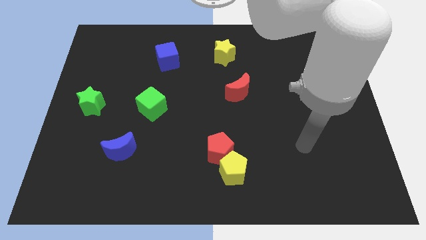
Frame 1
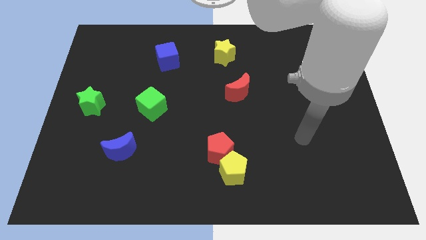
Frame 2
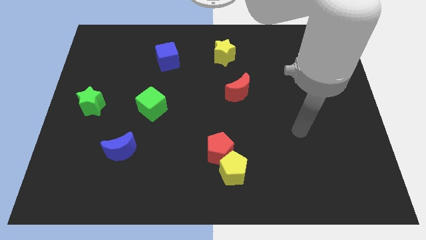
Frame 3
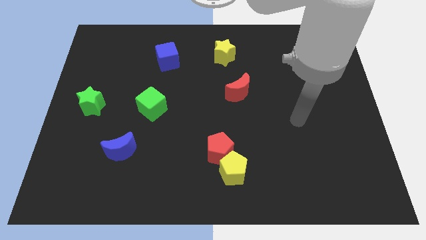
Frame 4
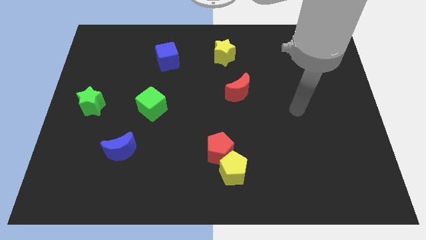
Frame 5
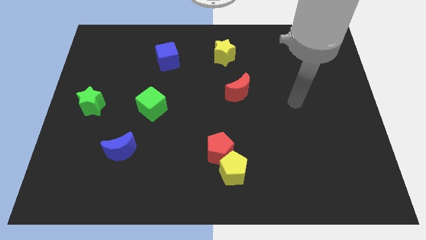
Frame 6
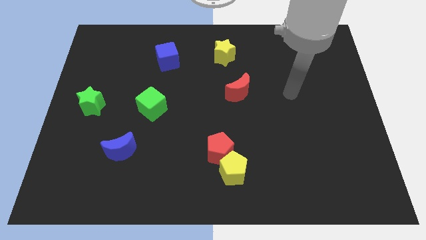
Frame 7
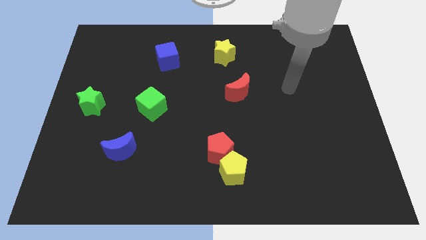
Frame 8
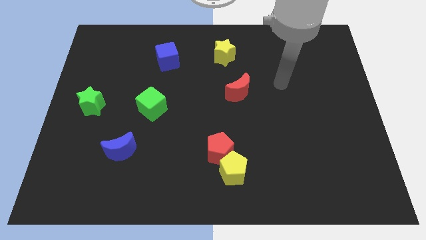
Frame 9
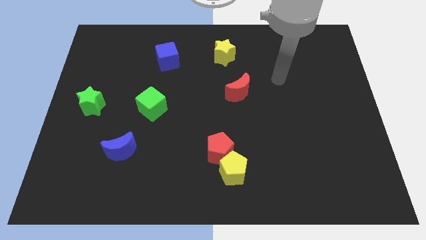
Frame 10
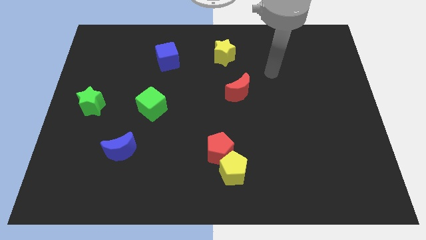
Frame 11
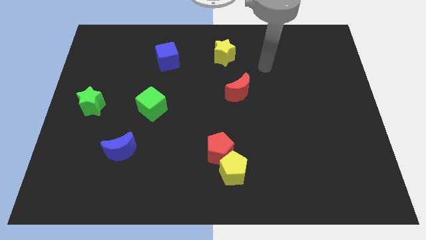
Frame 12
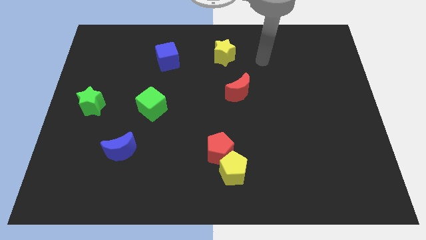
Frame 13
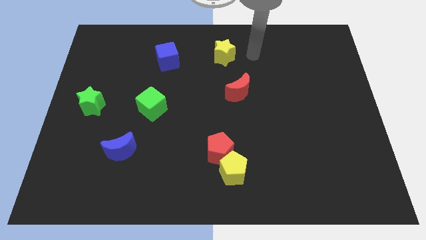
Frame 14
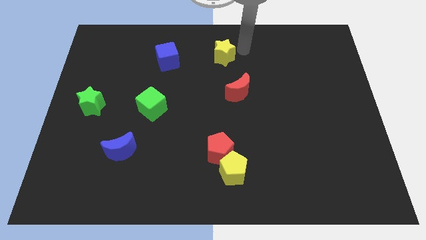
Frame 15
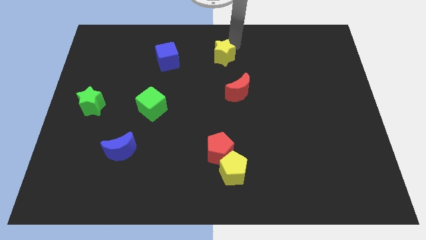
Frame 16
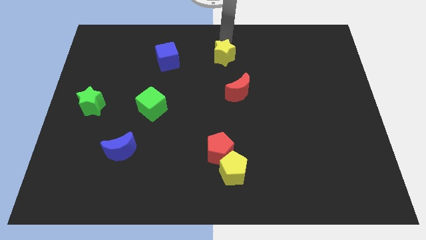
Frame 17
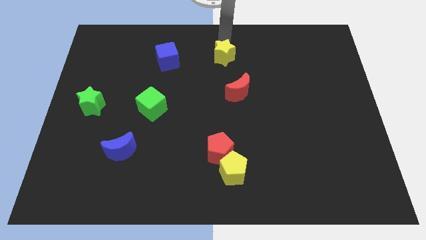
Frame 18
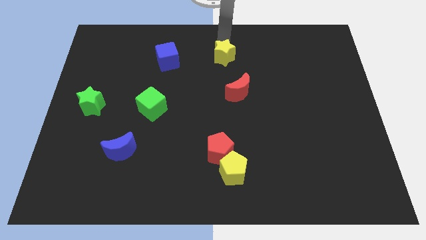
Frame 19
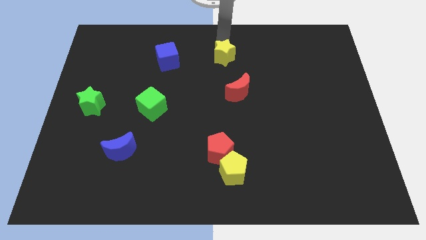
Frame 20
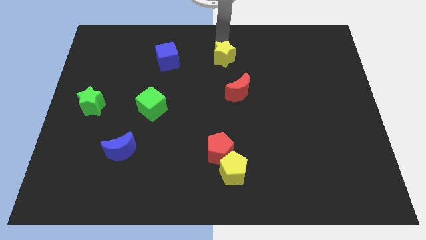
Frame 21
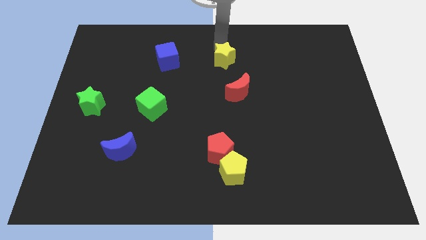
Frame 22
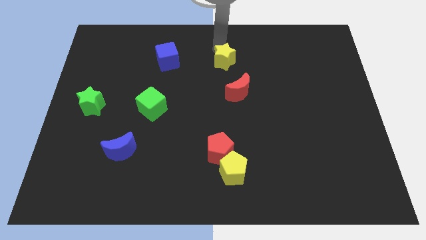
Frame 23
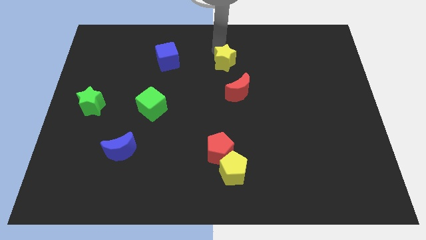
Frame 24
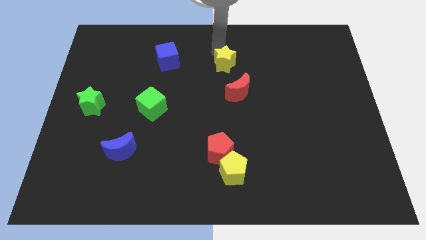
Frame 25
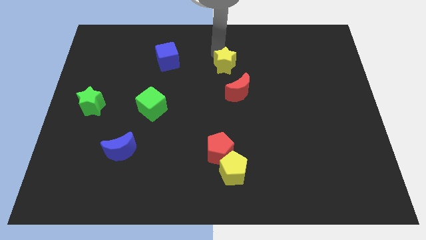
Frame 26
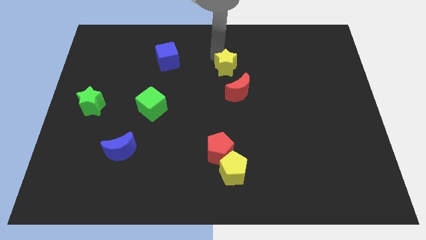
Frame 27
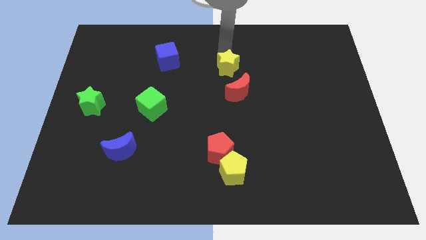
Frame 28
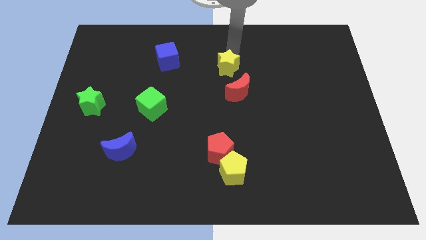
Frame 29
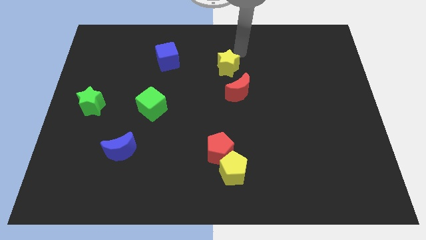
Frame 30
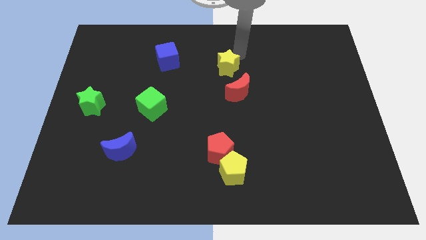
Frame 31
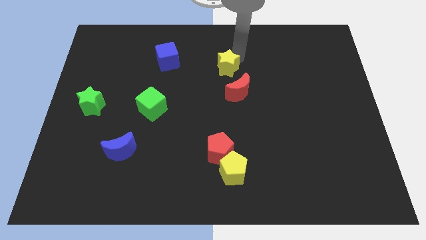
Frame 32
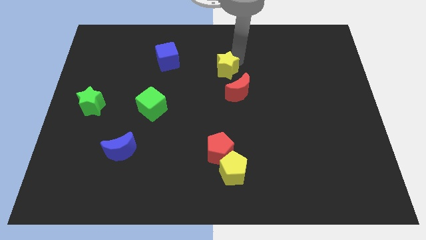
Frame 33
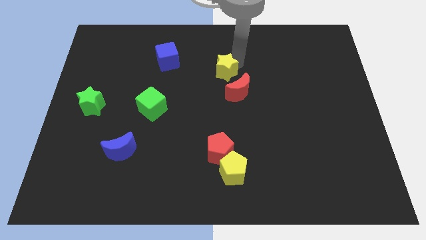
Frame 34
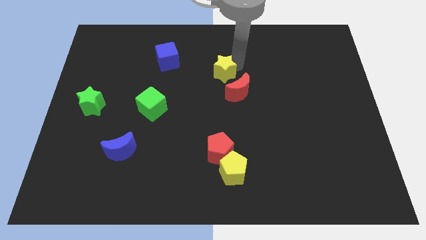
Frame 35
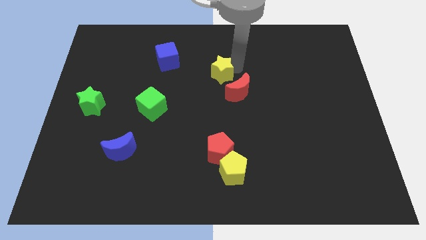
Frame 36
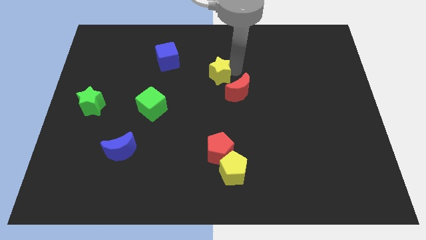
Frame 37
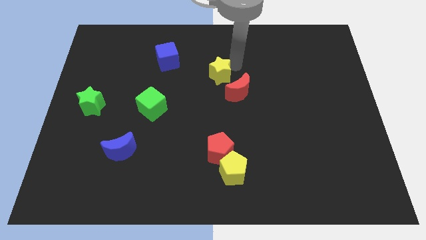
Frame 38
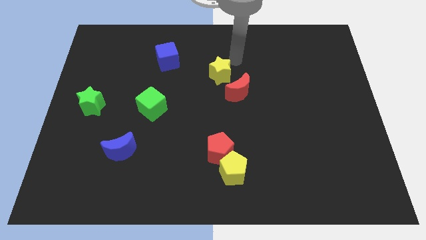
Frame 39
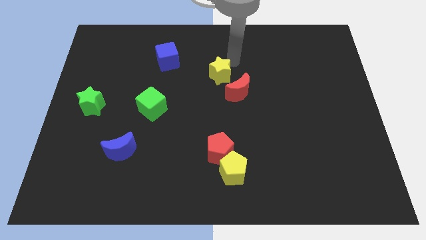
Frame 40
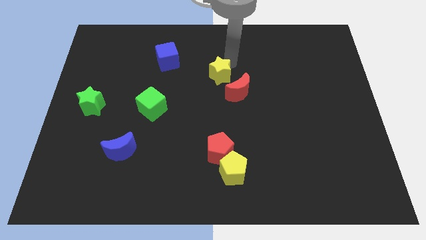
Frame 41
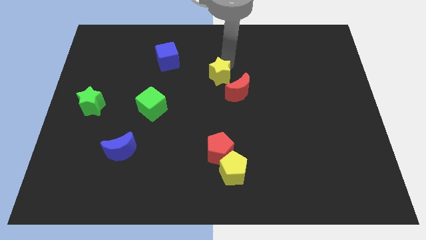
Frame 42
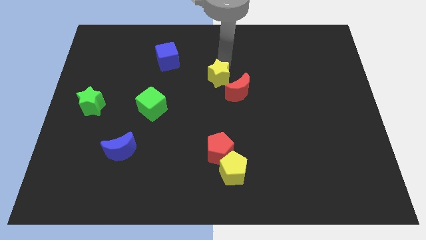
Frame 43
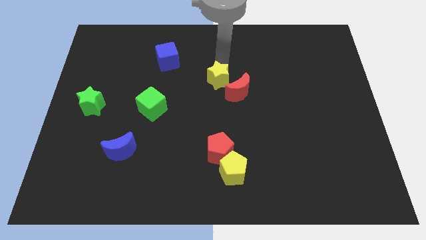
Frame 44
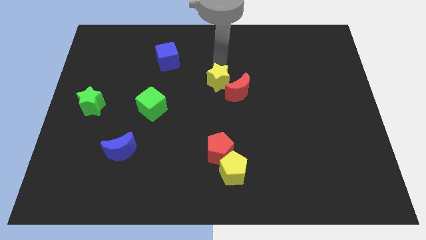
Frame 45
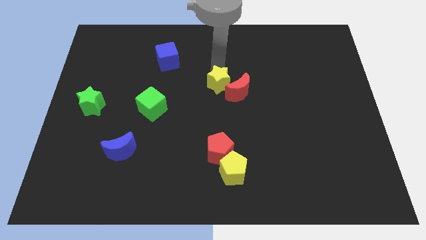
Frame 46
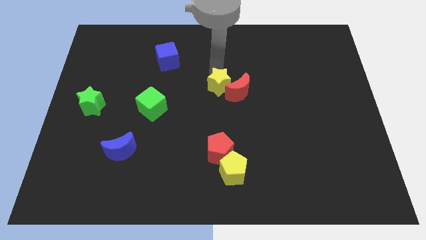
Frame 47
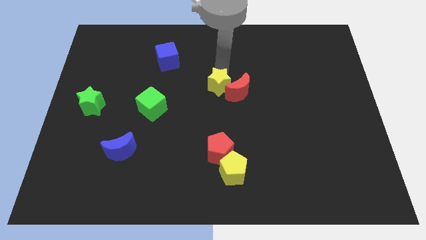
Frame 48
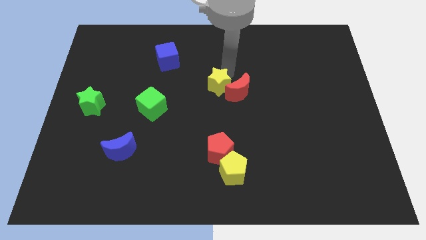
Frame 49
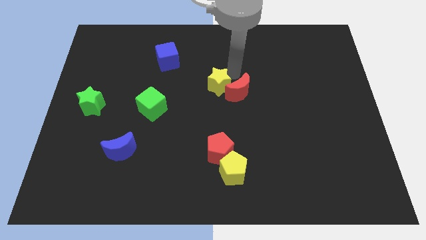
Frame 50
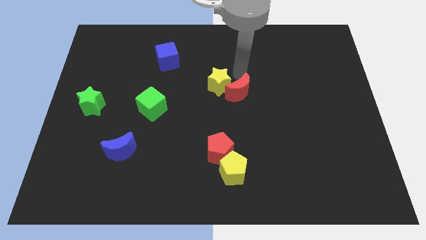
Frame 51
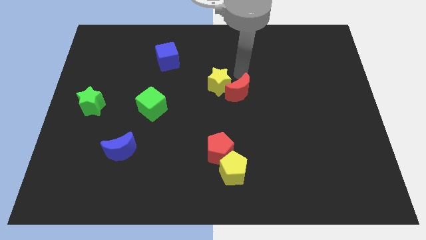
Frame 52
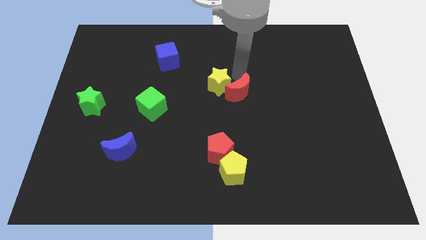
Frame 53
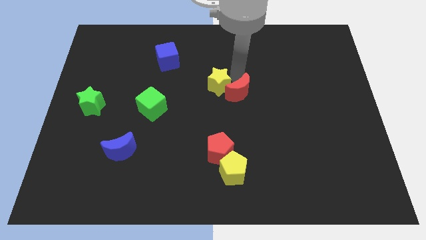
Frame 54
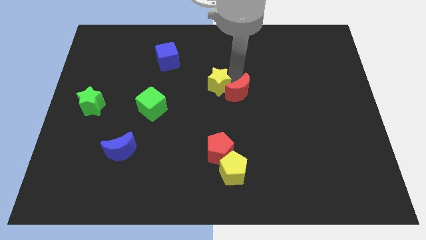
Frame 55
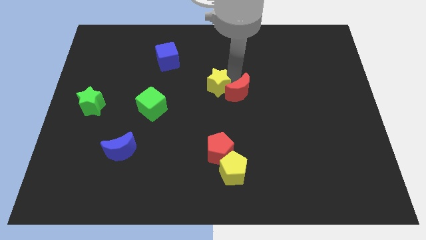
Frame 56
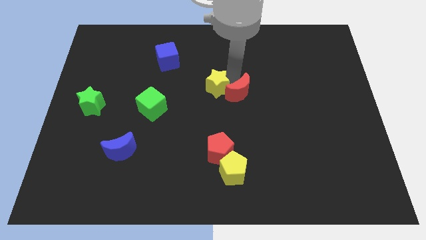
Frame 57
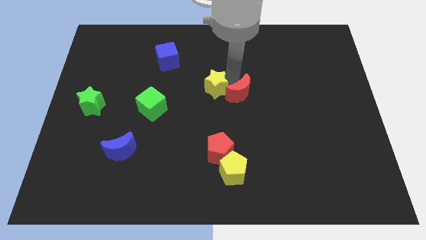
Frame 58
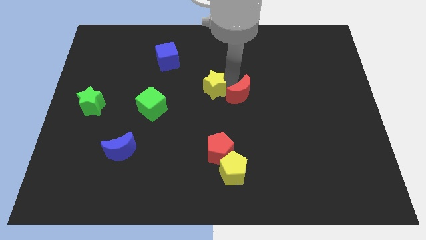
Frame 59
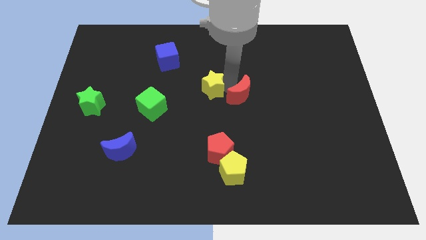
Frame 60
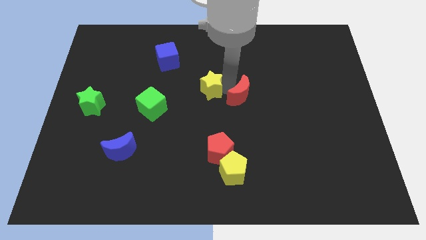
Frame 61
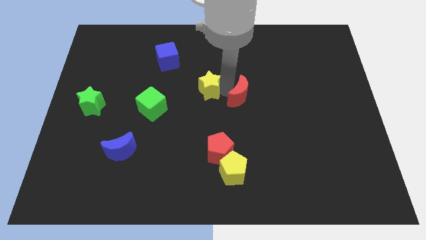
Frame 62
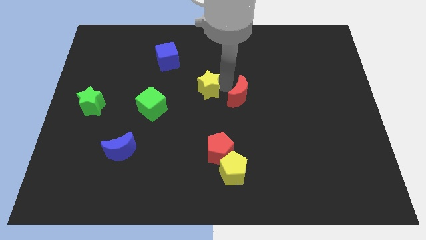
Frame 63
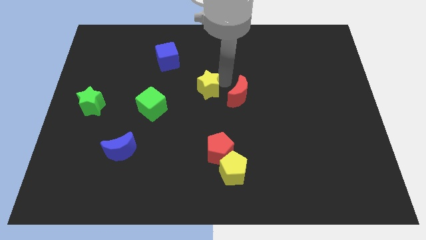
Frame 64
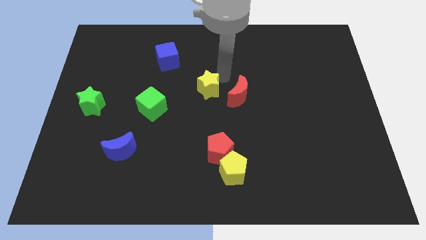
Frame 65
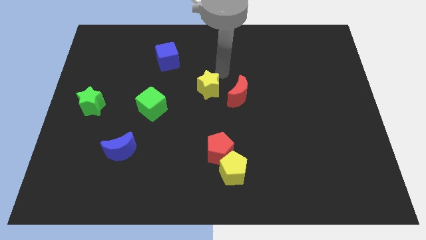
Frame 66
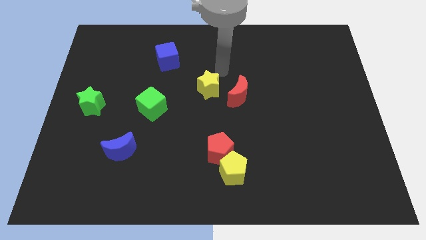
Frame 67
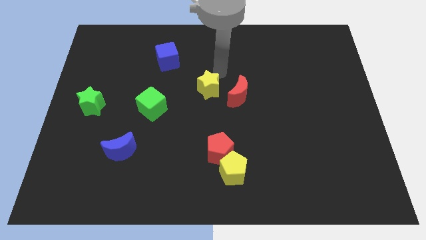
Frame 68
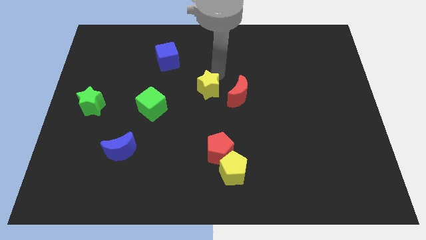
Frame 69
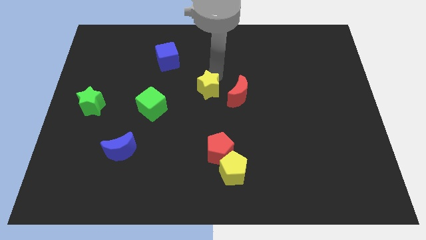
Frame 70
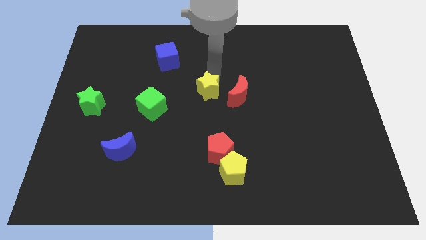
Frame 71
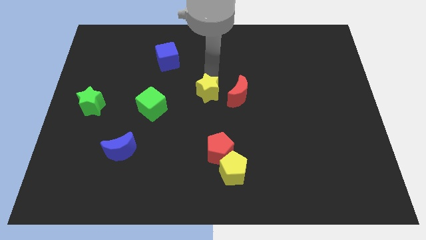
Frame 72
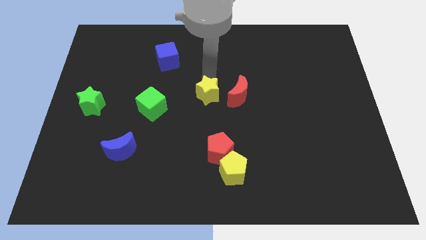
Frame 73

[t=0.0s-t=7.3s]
slide the yellow star to the right of the green cube
